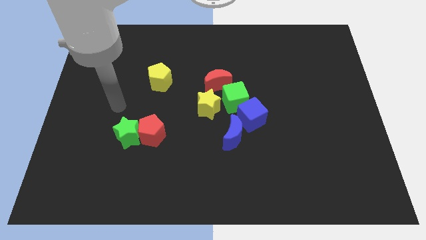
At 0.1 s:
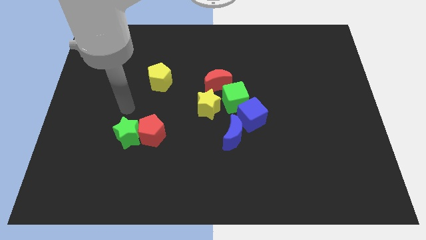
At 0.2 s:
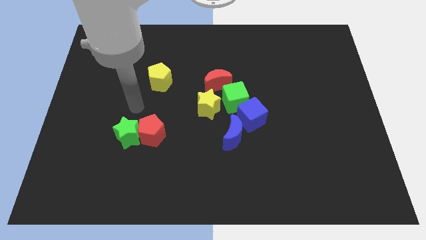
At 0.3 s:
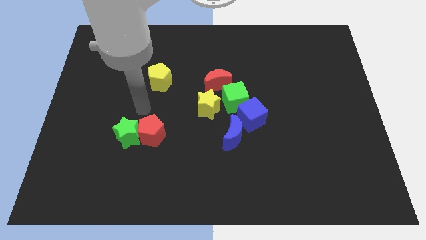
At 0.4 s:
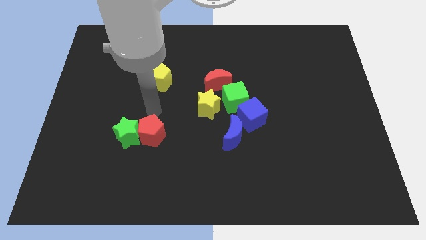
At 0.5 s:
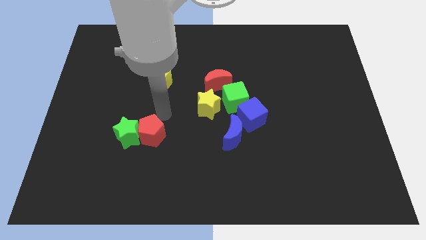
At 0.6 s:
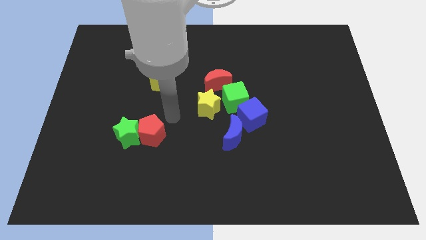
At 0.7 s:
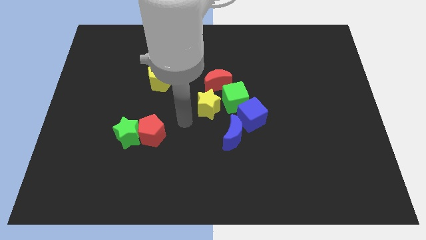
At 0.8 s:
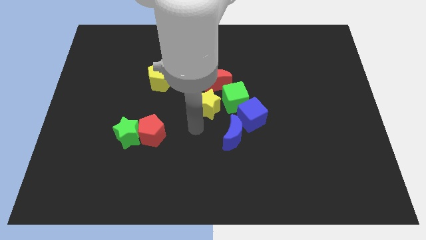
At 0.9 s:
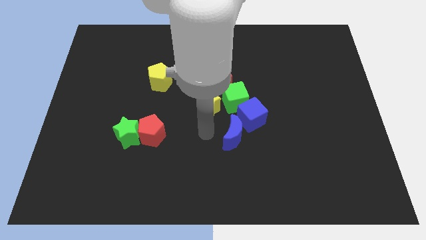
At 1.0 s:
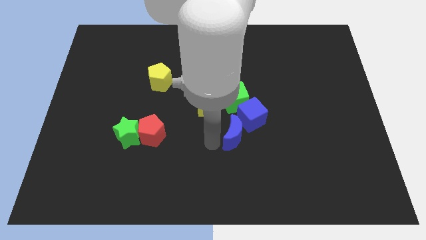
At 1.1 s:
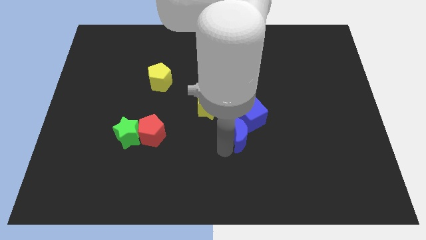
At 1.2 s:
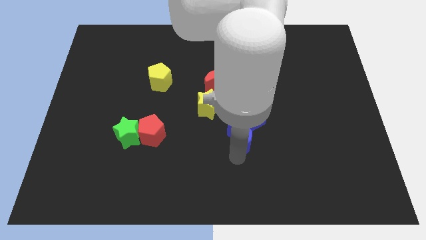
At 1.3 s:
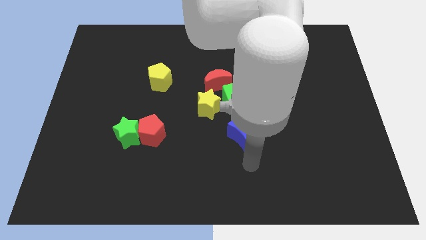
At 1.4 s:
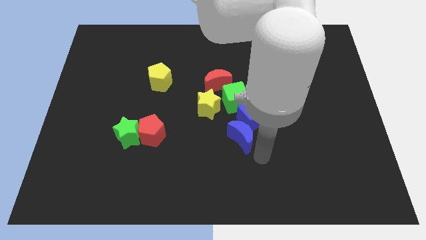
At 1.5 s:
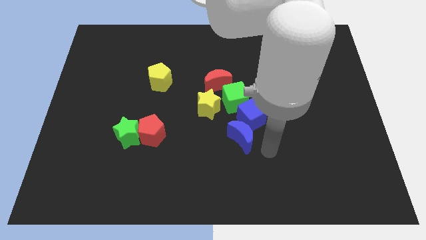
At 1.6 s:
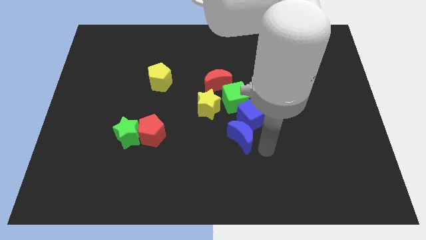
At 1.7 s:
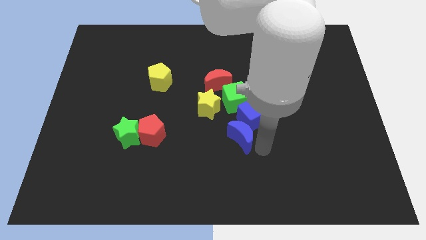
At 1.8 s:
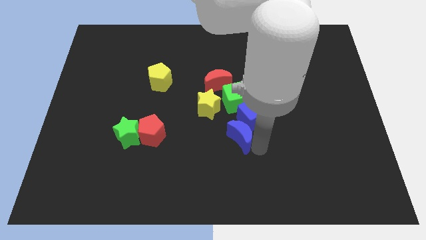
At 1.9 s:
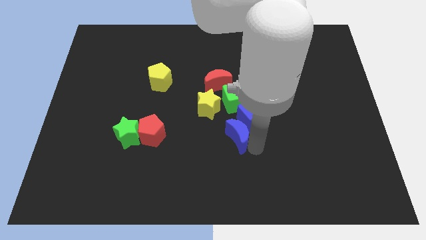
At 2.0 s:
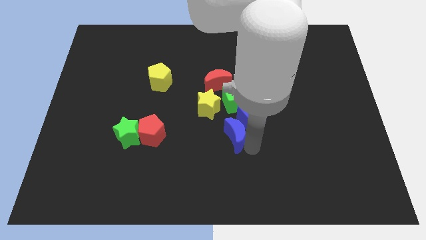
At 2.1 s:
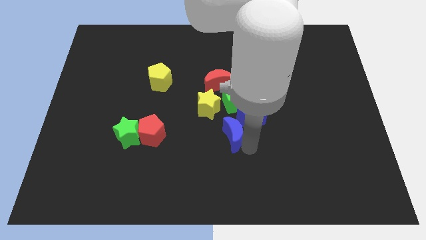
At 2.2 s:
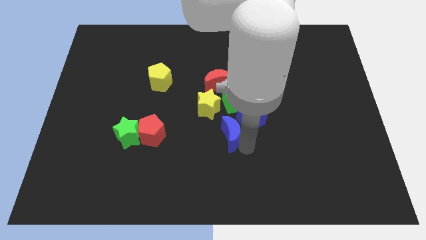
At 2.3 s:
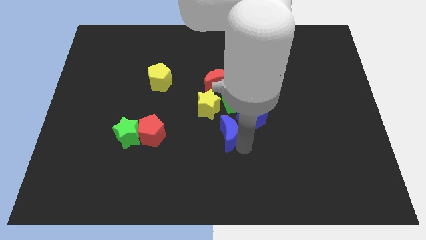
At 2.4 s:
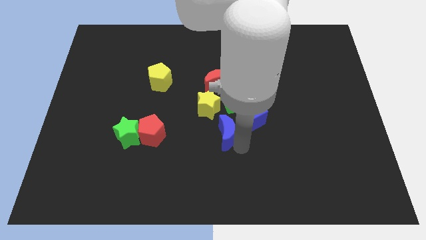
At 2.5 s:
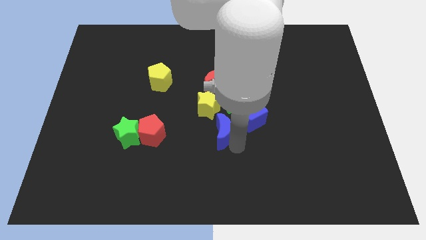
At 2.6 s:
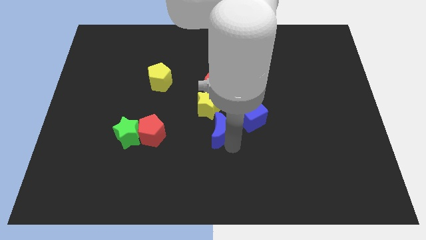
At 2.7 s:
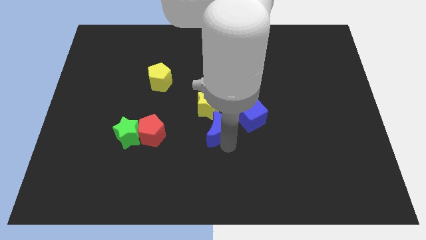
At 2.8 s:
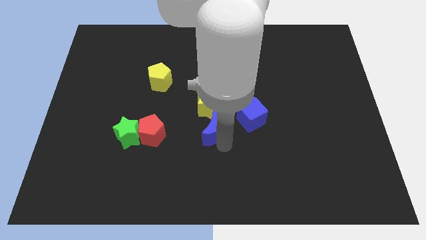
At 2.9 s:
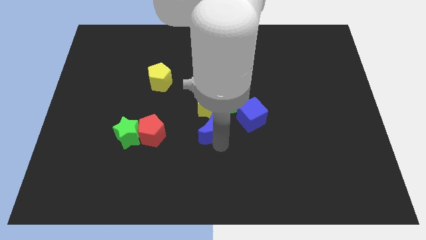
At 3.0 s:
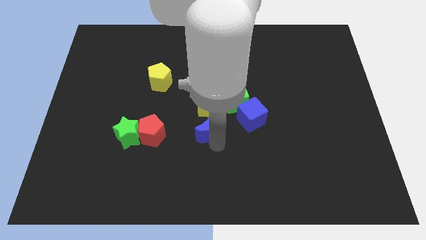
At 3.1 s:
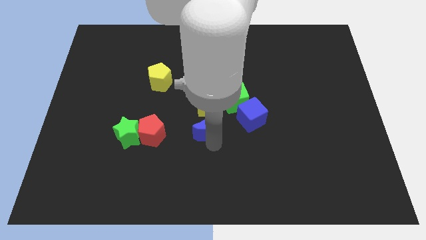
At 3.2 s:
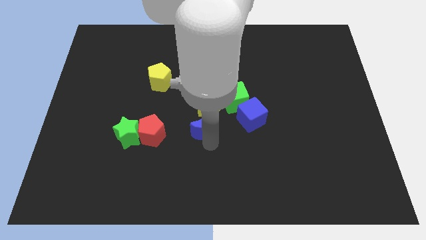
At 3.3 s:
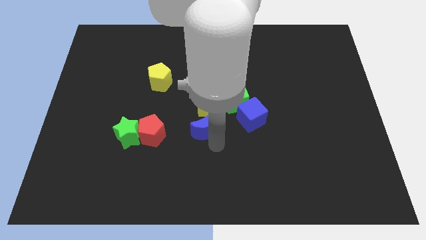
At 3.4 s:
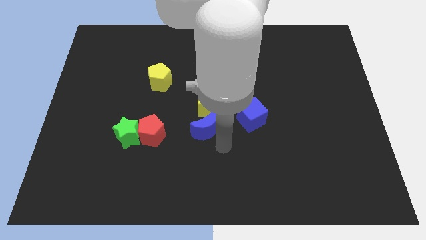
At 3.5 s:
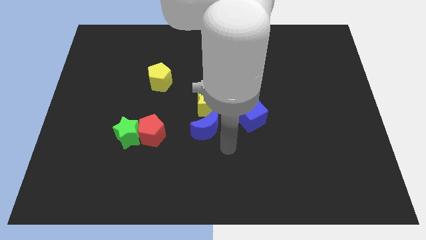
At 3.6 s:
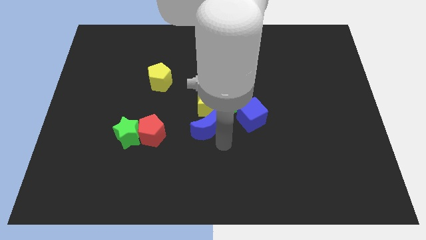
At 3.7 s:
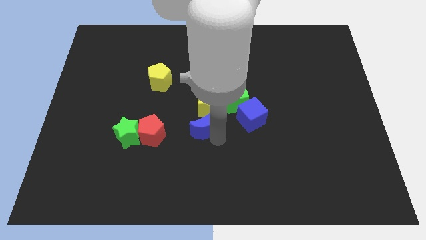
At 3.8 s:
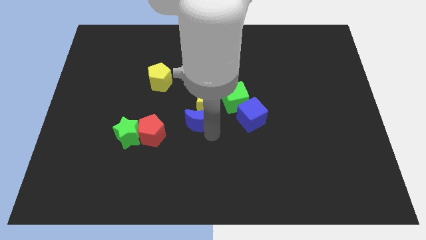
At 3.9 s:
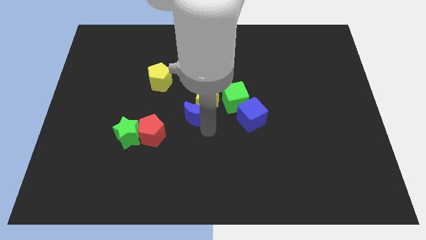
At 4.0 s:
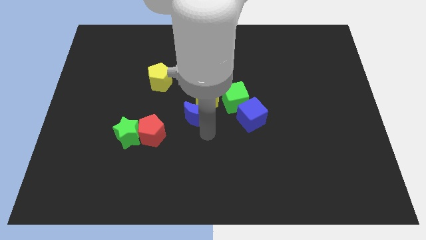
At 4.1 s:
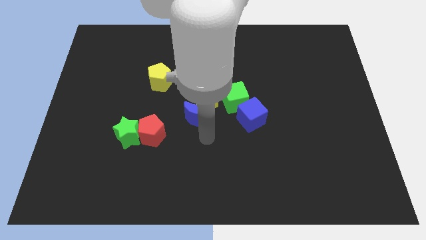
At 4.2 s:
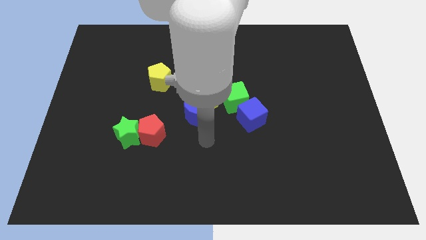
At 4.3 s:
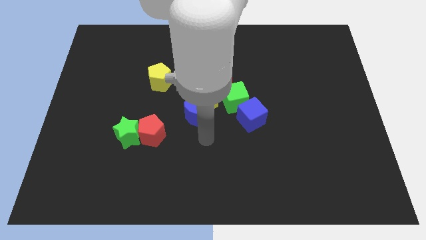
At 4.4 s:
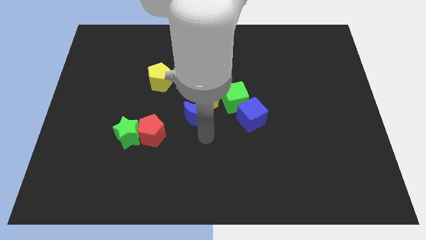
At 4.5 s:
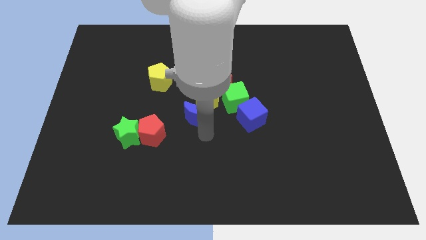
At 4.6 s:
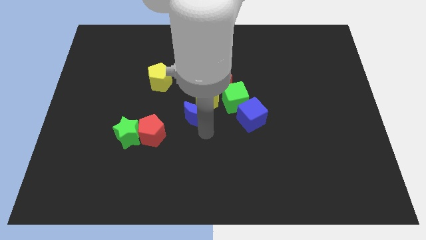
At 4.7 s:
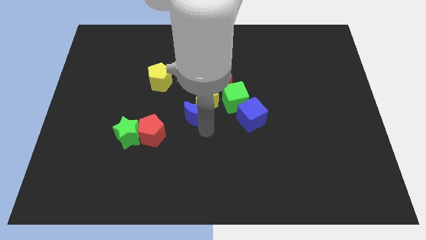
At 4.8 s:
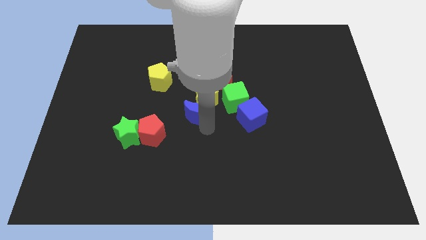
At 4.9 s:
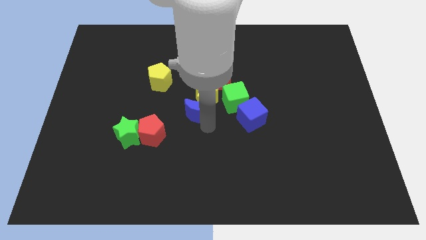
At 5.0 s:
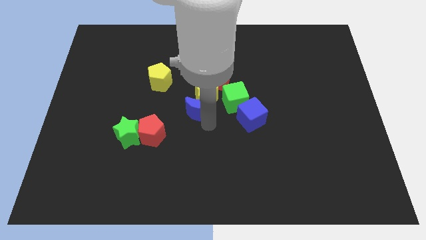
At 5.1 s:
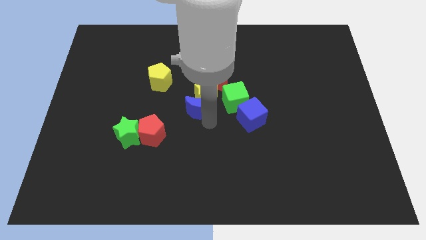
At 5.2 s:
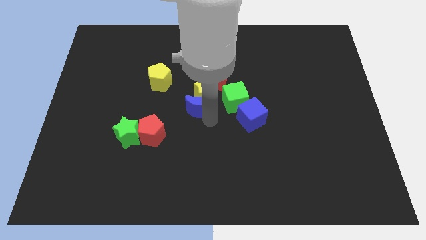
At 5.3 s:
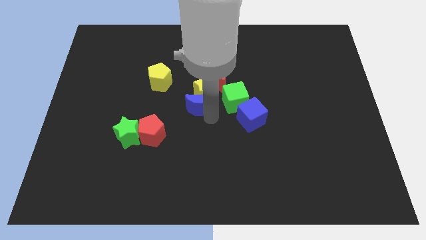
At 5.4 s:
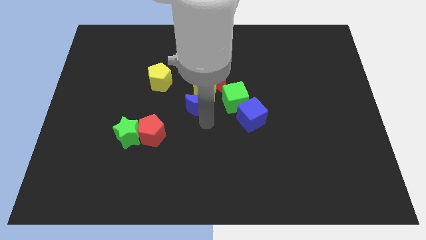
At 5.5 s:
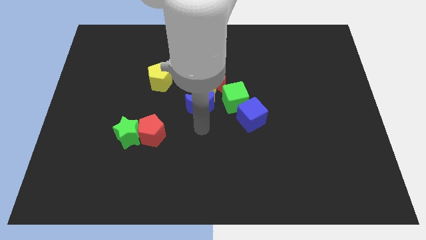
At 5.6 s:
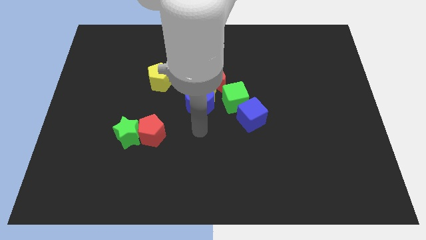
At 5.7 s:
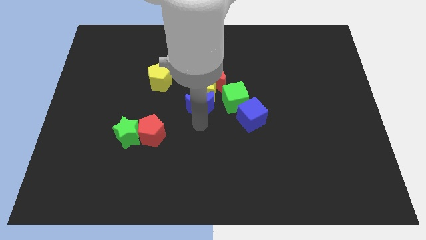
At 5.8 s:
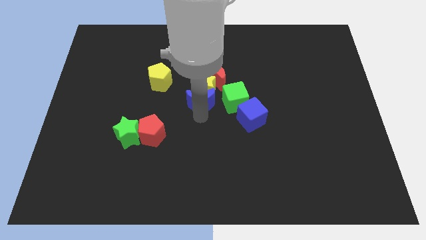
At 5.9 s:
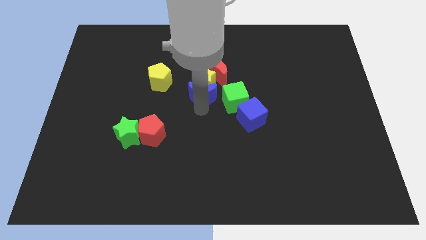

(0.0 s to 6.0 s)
move the blue moon diagonally up and to the left of the green cube

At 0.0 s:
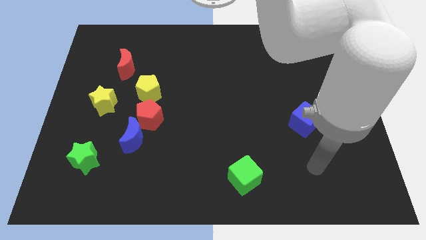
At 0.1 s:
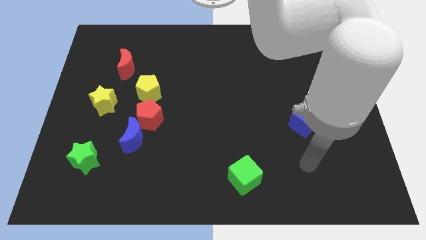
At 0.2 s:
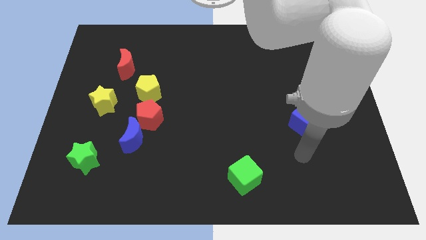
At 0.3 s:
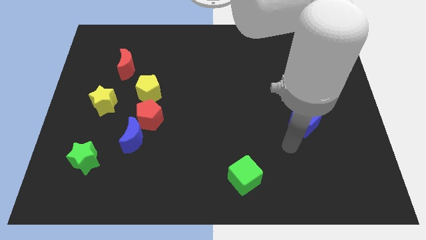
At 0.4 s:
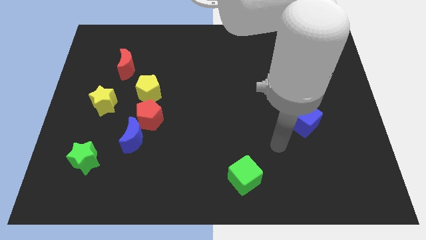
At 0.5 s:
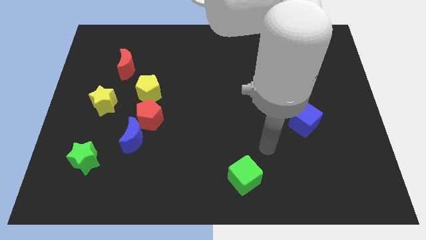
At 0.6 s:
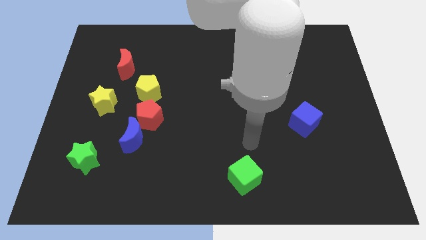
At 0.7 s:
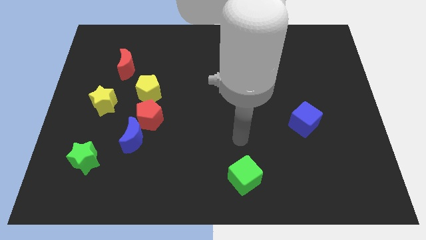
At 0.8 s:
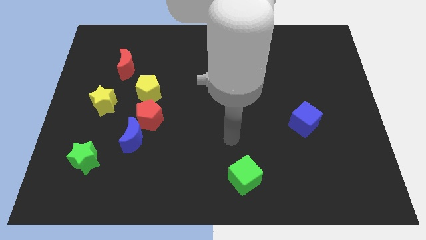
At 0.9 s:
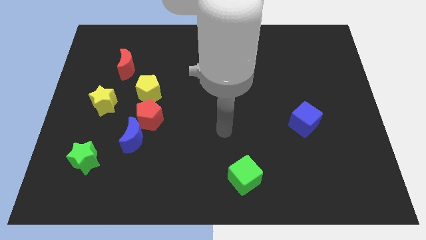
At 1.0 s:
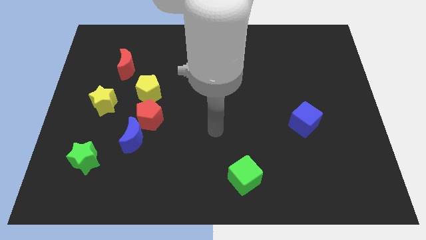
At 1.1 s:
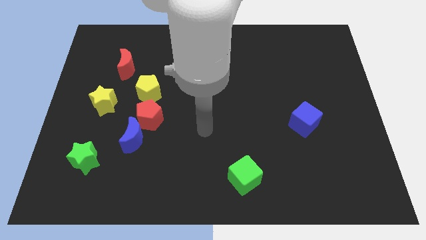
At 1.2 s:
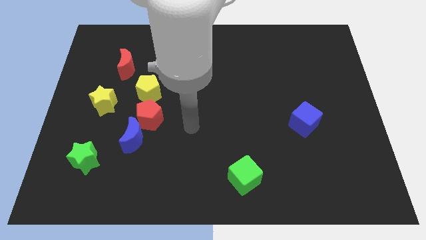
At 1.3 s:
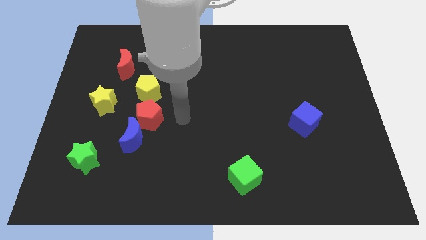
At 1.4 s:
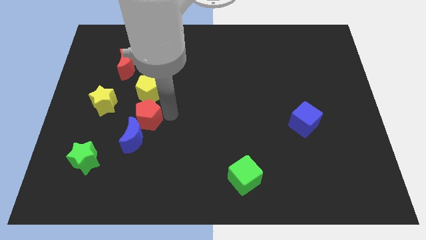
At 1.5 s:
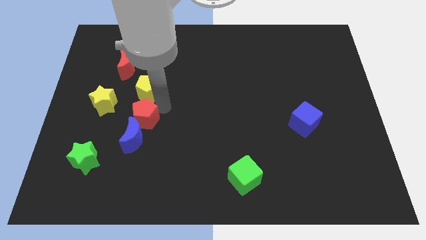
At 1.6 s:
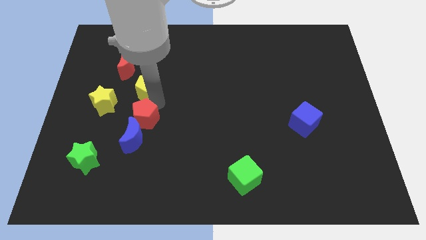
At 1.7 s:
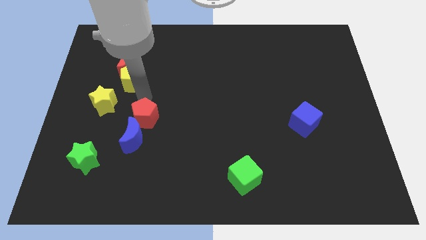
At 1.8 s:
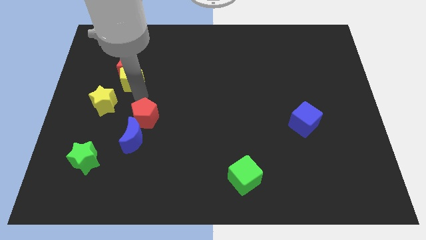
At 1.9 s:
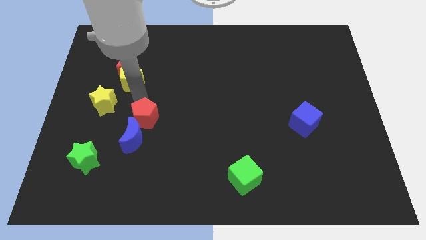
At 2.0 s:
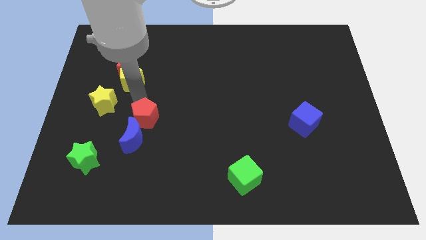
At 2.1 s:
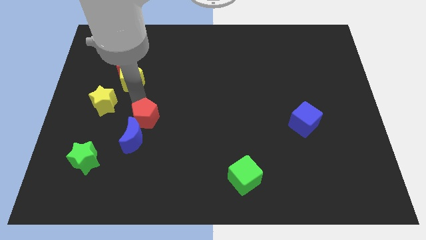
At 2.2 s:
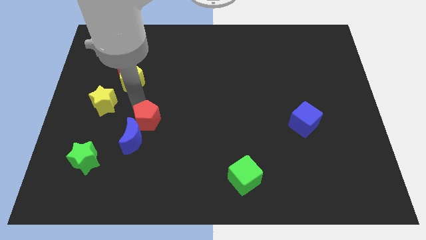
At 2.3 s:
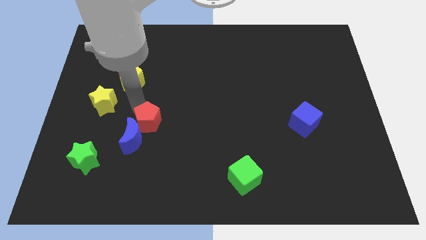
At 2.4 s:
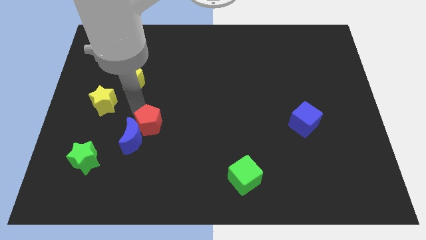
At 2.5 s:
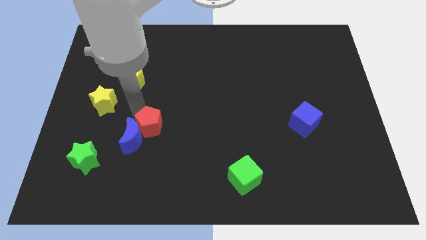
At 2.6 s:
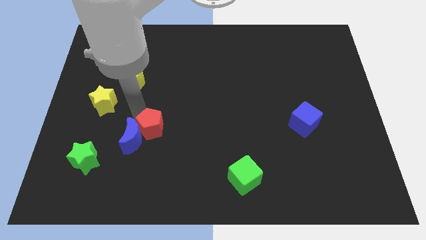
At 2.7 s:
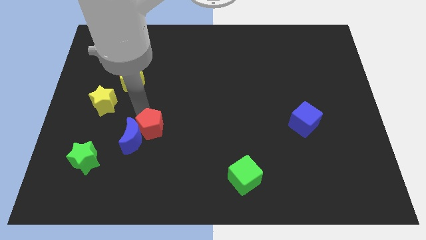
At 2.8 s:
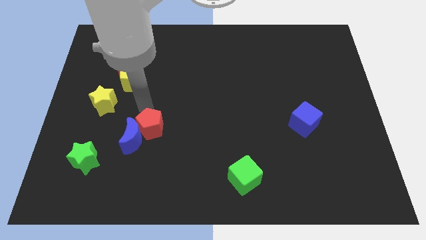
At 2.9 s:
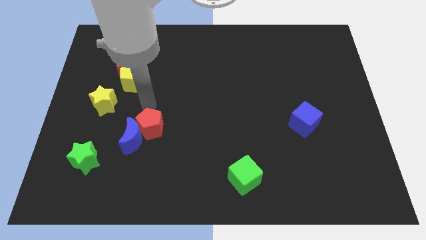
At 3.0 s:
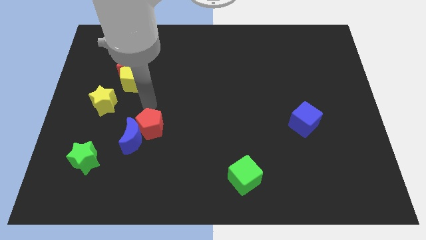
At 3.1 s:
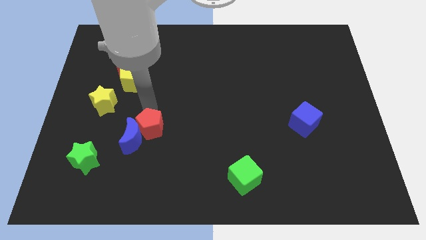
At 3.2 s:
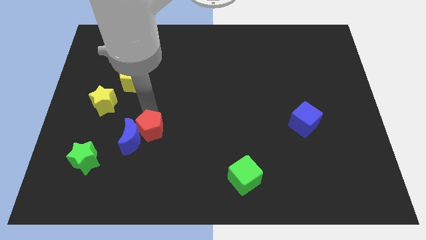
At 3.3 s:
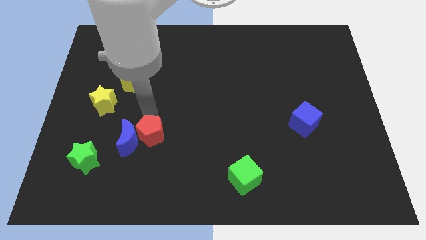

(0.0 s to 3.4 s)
move the red pentagon diagonally down and to the right of the blue moon
